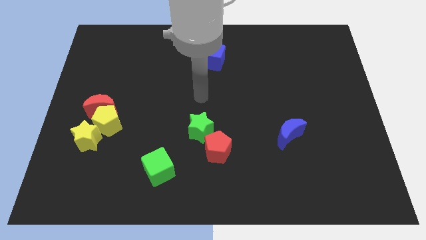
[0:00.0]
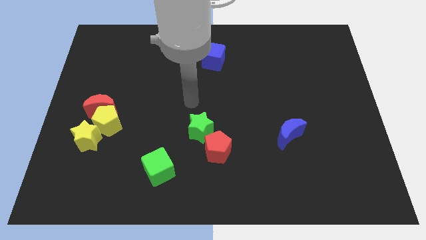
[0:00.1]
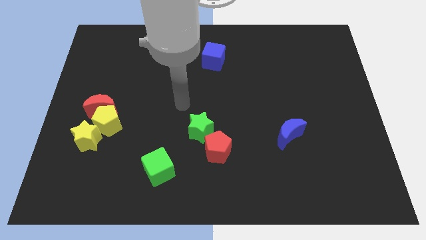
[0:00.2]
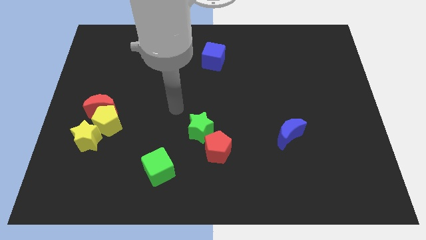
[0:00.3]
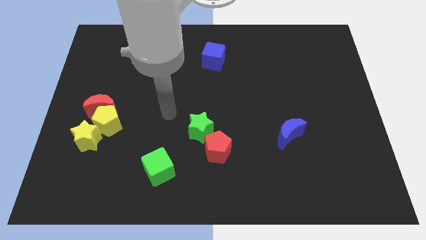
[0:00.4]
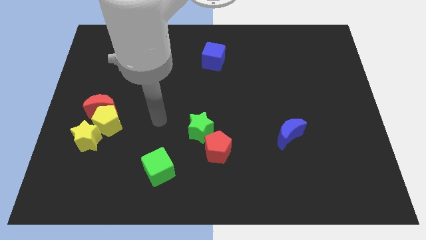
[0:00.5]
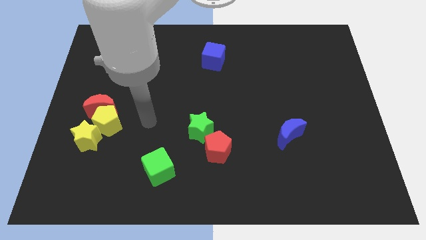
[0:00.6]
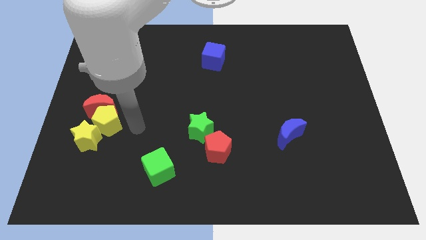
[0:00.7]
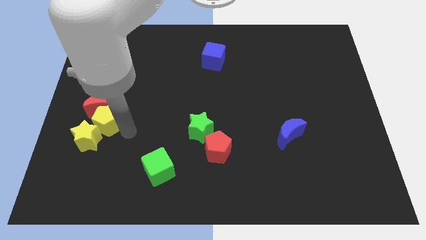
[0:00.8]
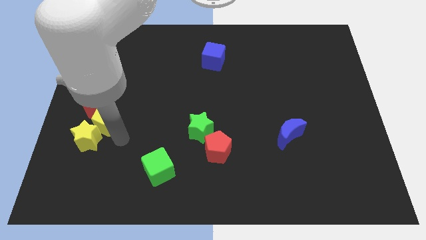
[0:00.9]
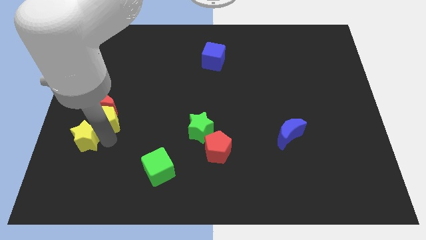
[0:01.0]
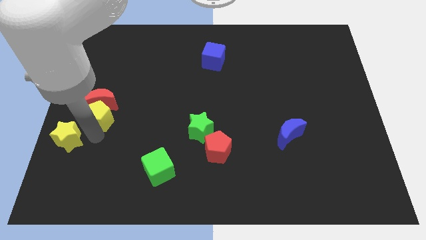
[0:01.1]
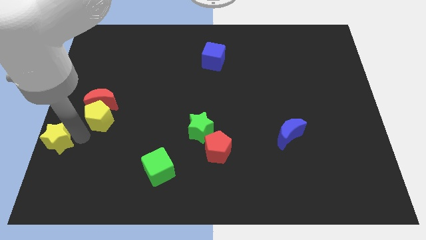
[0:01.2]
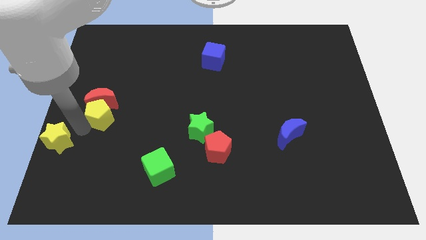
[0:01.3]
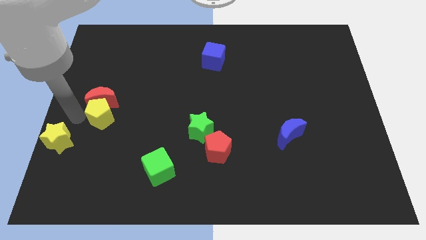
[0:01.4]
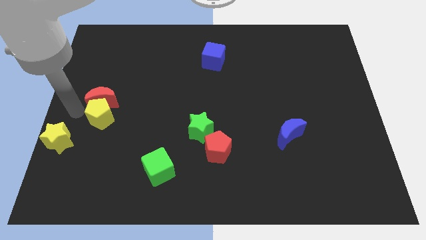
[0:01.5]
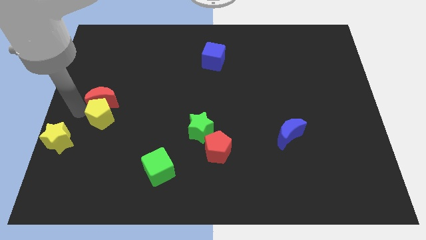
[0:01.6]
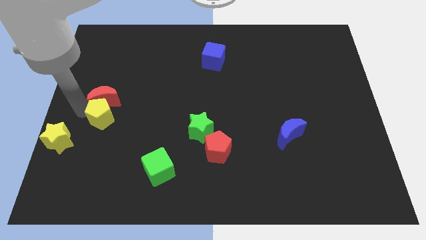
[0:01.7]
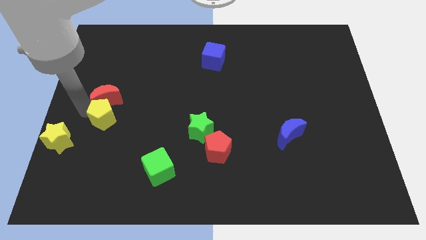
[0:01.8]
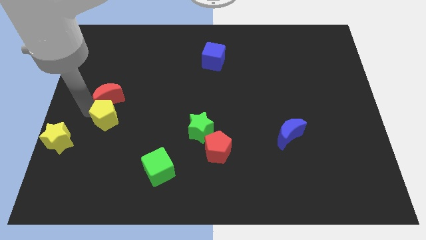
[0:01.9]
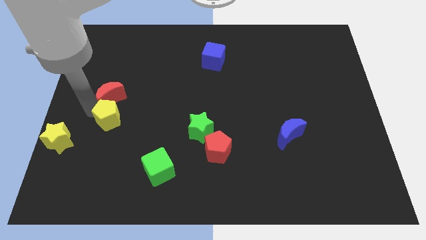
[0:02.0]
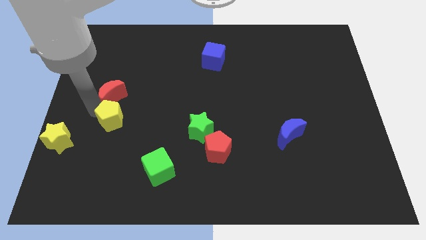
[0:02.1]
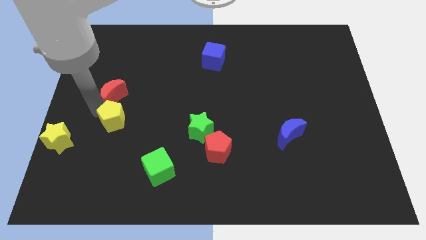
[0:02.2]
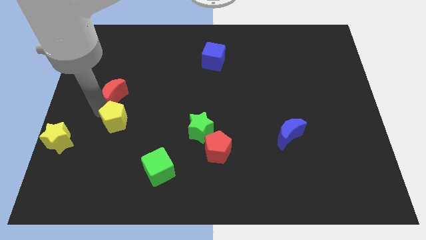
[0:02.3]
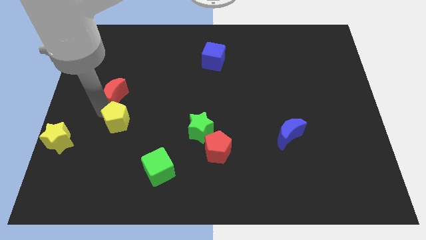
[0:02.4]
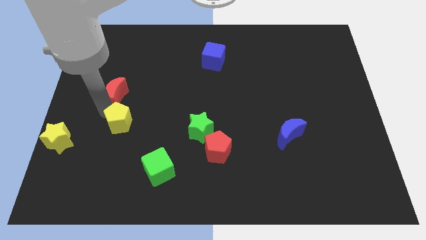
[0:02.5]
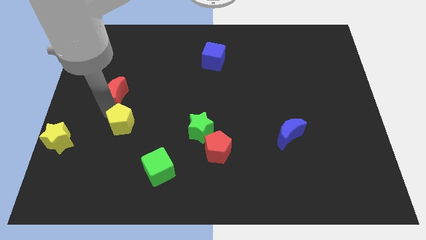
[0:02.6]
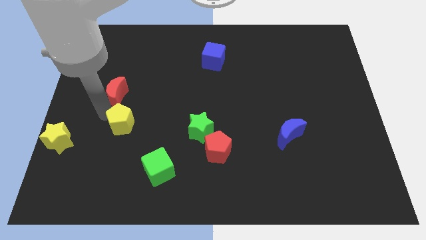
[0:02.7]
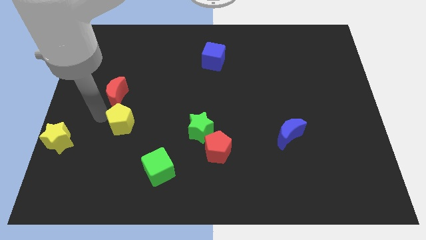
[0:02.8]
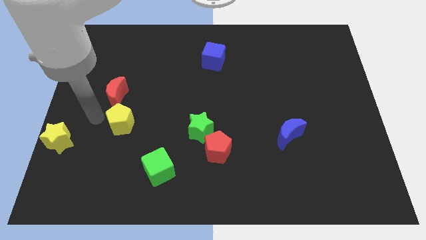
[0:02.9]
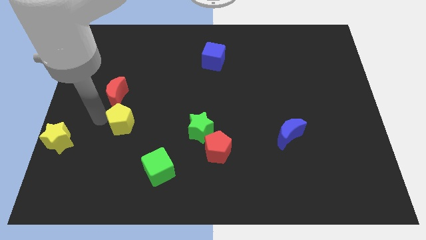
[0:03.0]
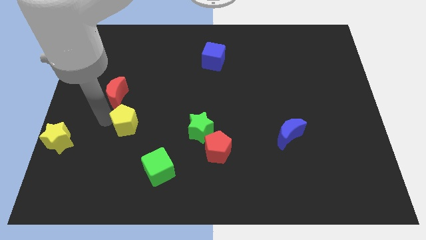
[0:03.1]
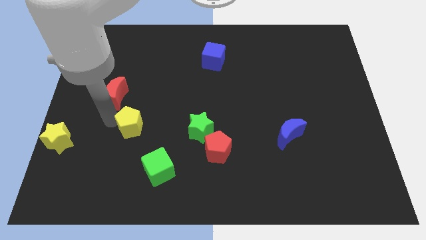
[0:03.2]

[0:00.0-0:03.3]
move the yellow pentagon away from the red moon and yellow star

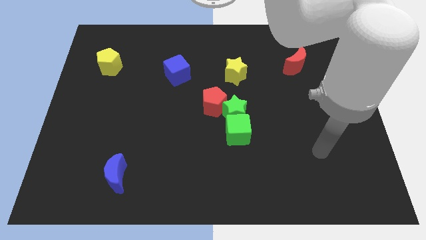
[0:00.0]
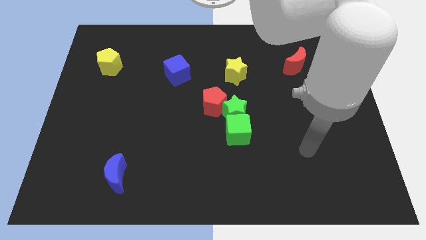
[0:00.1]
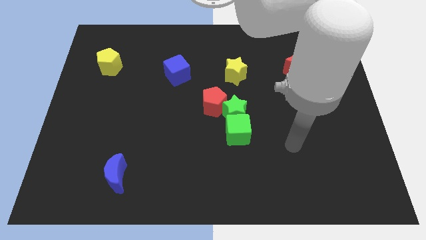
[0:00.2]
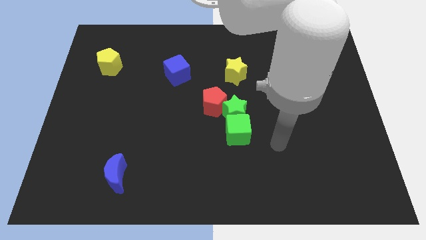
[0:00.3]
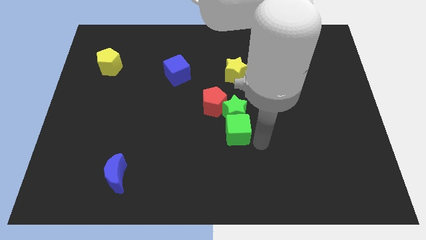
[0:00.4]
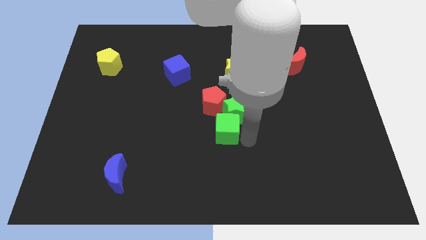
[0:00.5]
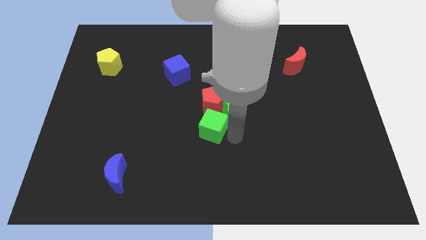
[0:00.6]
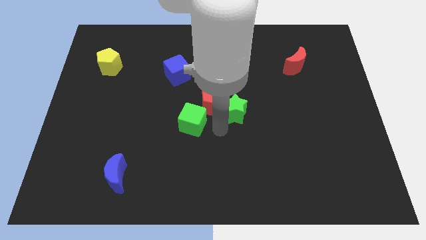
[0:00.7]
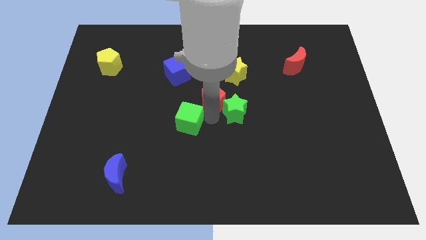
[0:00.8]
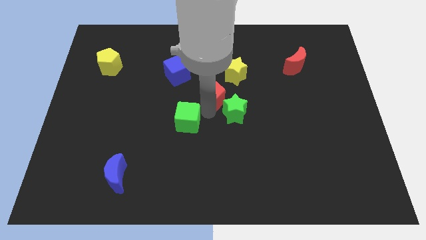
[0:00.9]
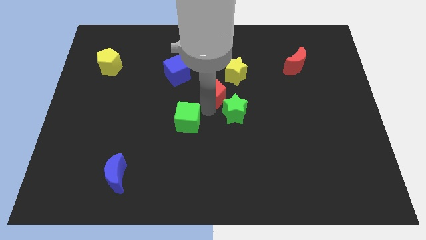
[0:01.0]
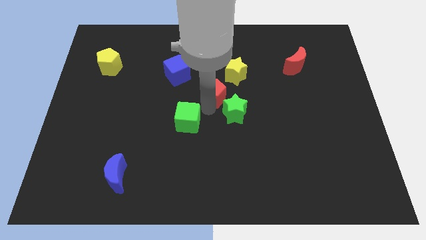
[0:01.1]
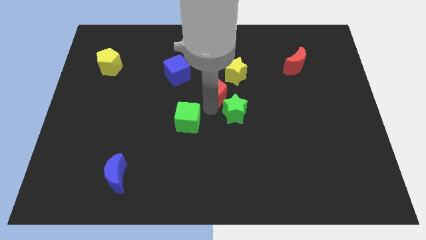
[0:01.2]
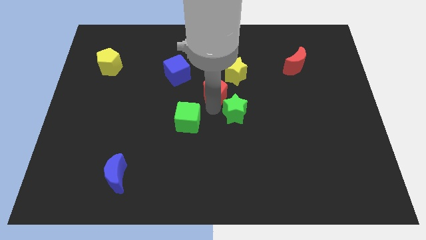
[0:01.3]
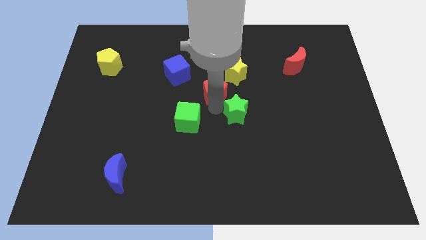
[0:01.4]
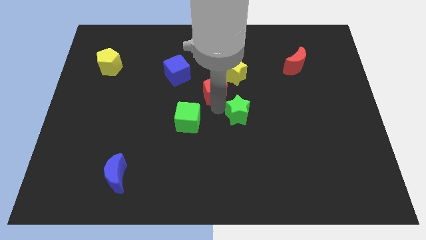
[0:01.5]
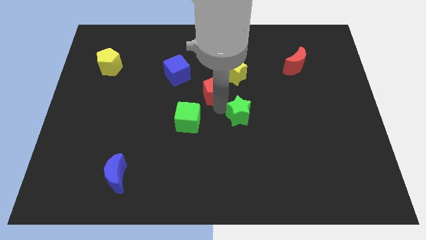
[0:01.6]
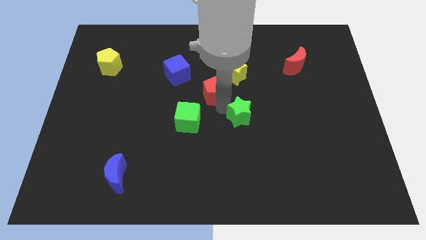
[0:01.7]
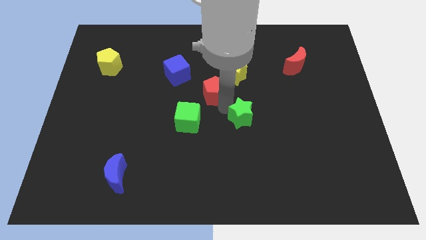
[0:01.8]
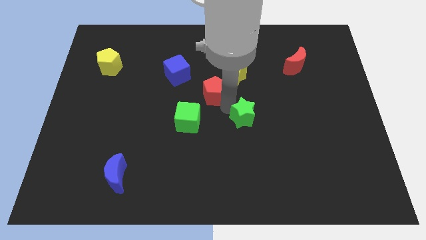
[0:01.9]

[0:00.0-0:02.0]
separate the green star from the green cube and red pentagon

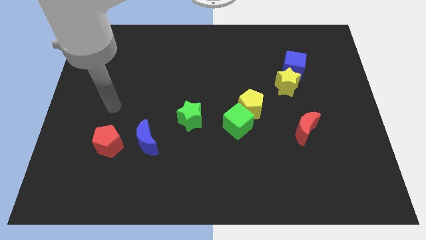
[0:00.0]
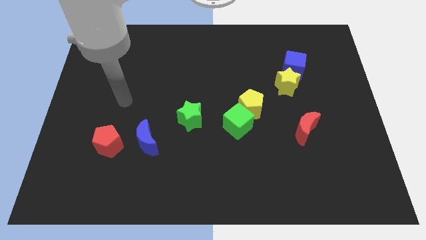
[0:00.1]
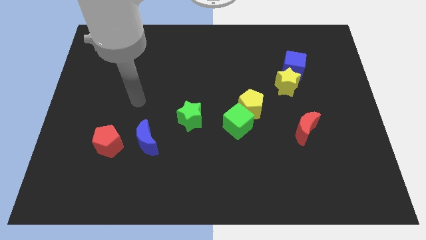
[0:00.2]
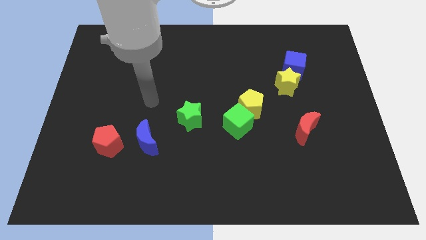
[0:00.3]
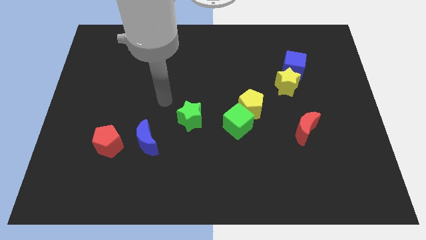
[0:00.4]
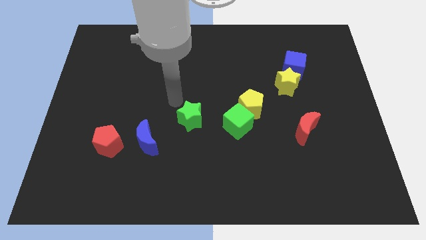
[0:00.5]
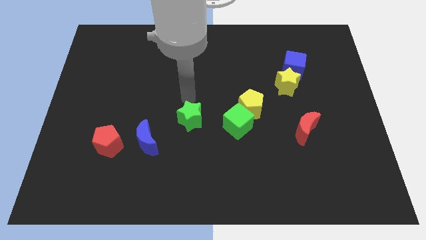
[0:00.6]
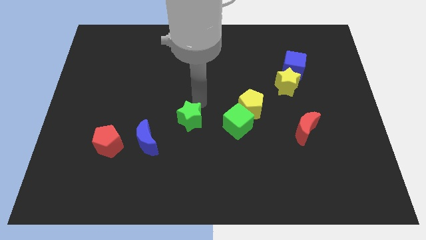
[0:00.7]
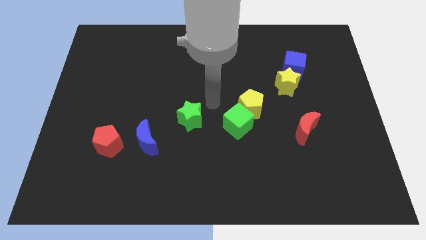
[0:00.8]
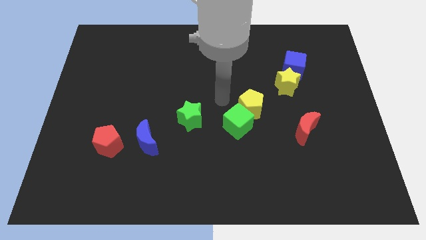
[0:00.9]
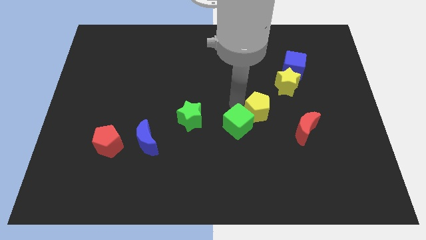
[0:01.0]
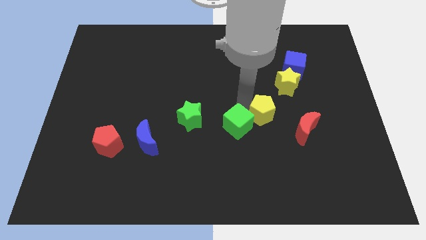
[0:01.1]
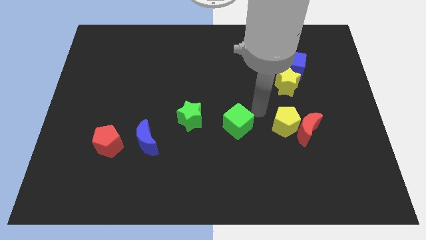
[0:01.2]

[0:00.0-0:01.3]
pull the green cube apart from the yellow pentagon

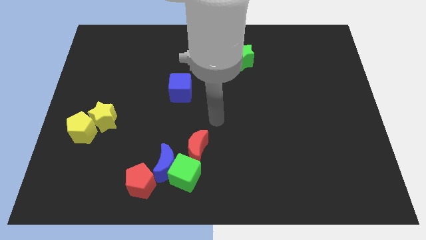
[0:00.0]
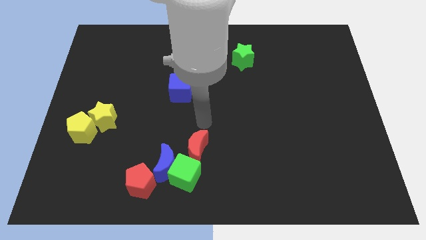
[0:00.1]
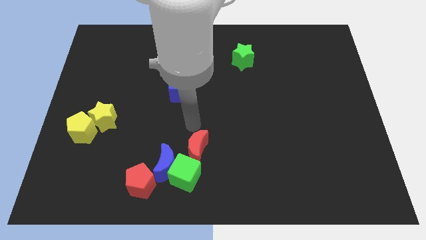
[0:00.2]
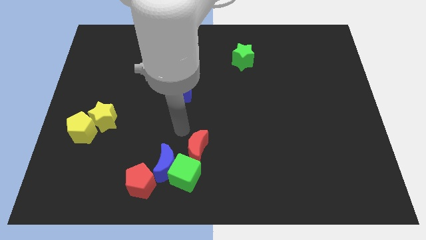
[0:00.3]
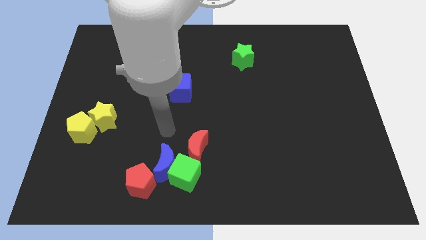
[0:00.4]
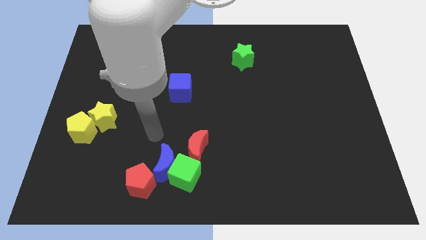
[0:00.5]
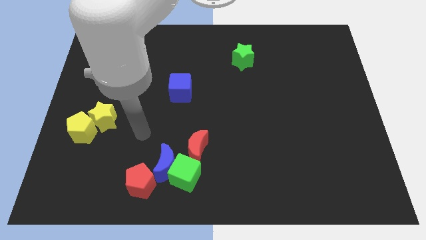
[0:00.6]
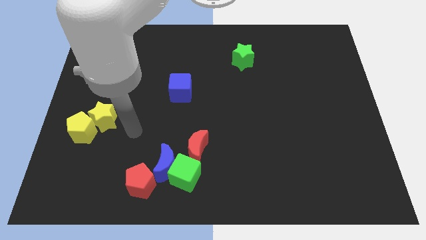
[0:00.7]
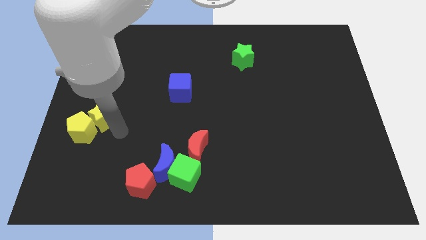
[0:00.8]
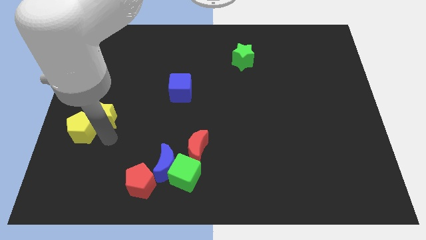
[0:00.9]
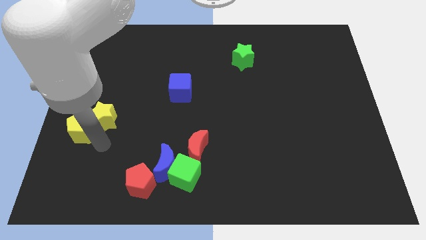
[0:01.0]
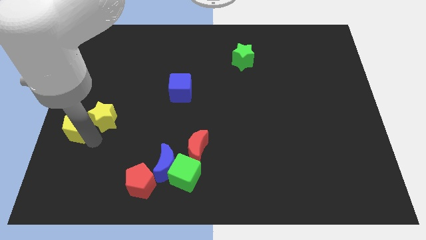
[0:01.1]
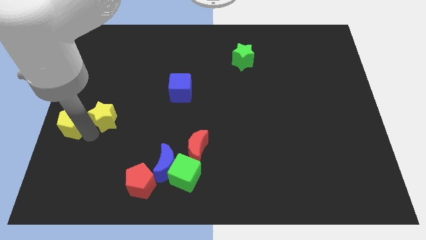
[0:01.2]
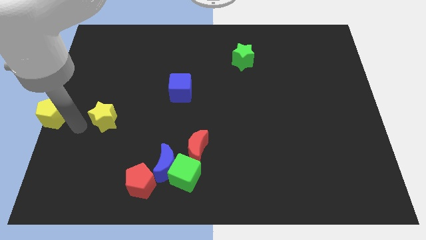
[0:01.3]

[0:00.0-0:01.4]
separate the yellow star from the yellow pentagon

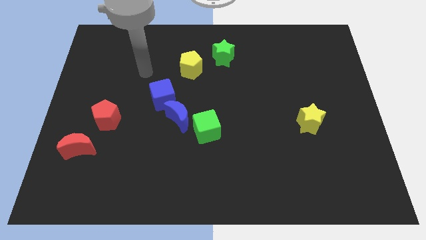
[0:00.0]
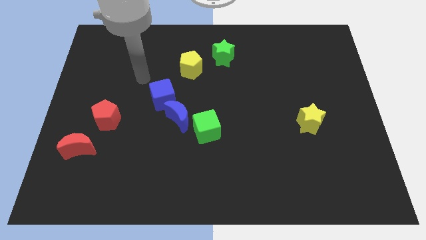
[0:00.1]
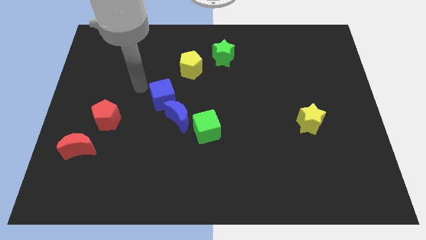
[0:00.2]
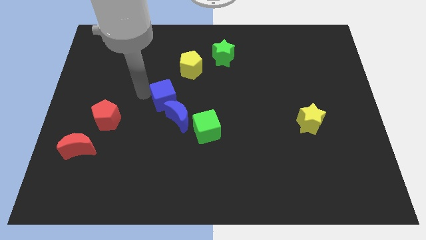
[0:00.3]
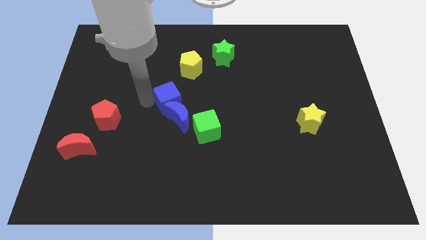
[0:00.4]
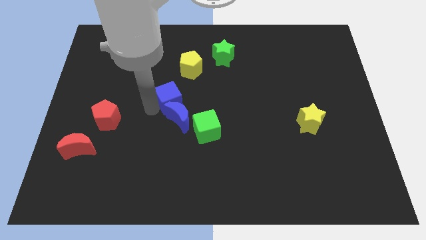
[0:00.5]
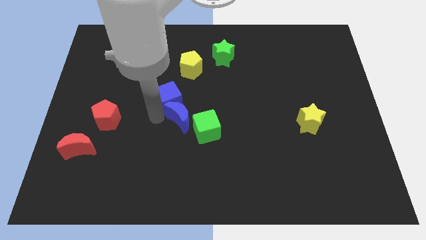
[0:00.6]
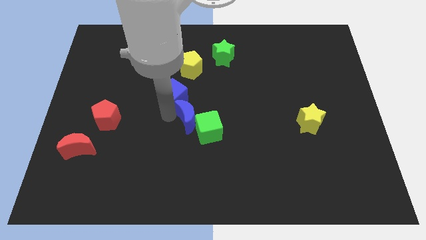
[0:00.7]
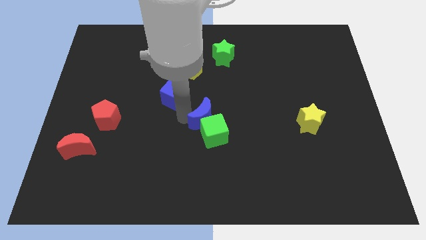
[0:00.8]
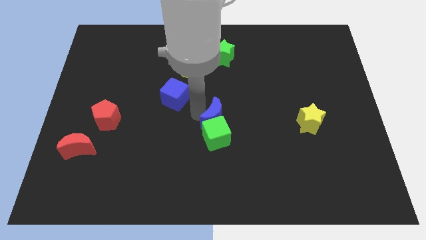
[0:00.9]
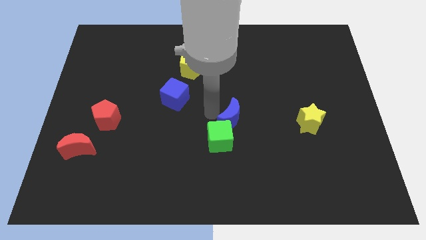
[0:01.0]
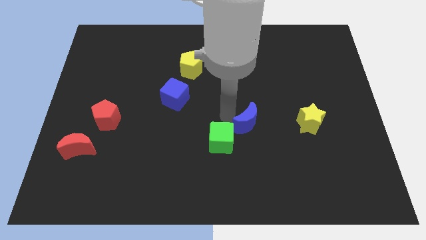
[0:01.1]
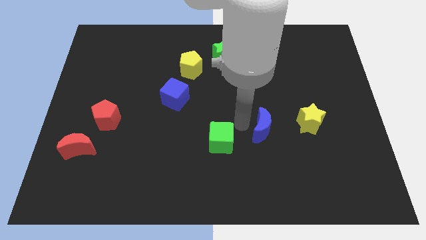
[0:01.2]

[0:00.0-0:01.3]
pull the green cube apart from the blue moon
